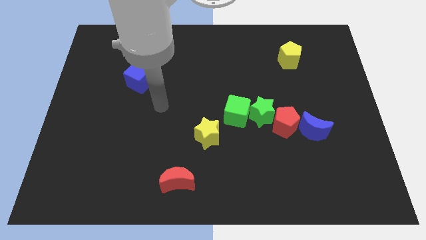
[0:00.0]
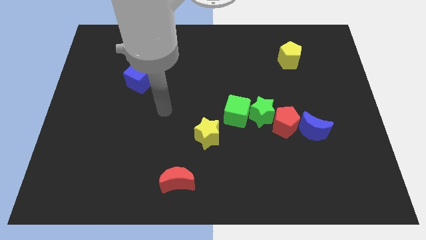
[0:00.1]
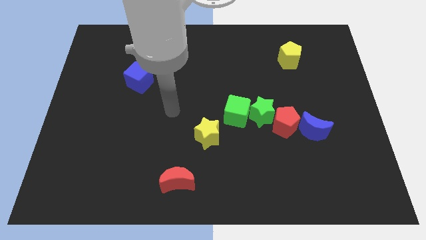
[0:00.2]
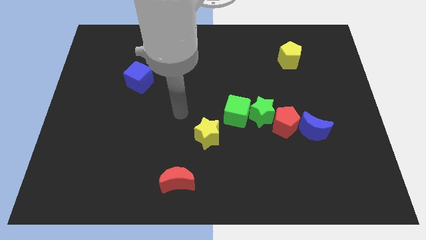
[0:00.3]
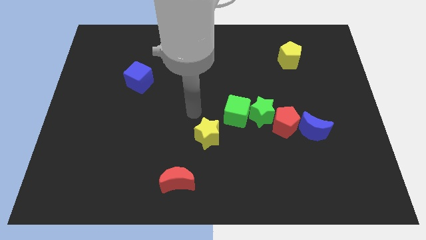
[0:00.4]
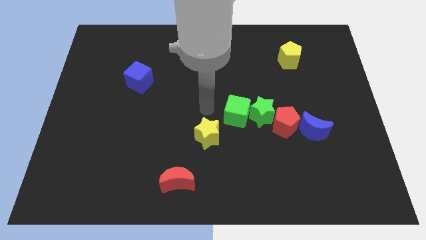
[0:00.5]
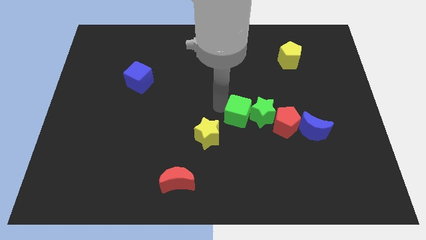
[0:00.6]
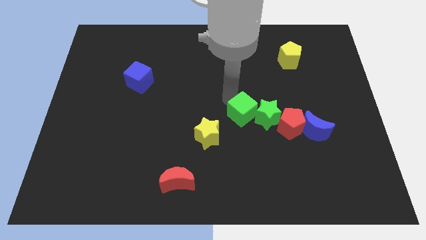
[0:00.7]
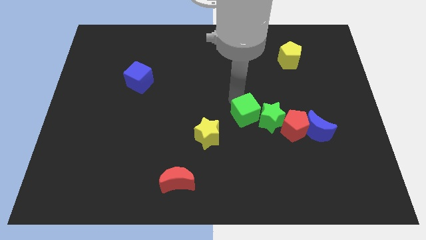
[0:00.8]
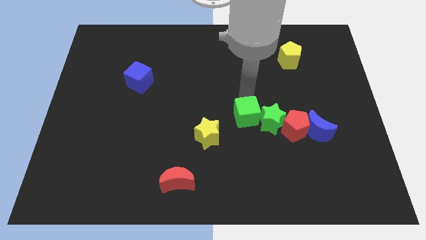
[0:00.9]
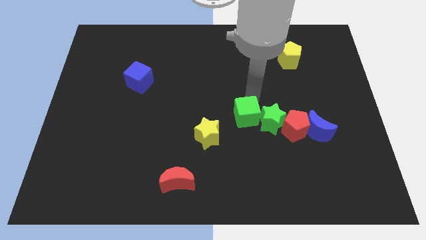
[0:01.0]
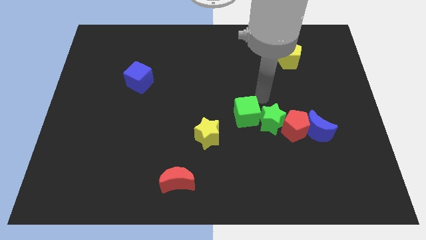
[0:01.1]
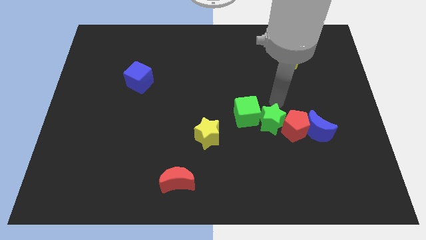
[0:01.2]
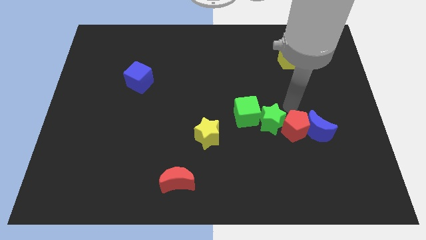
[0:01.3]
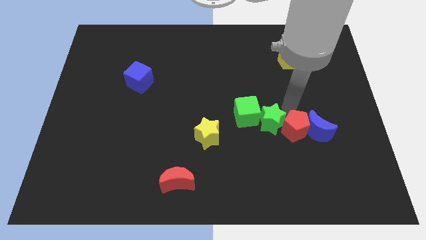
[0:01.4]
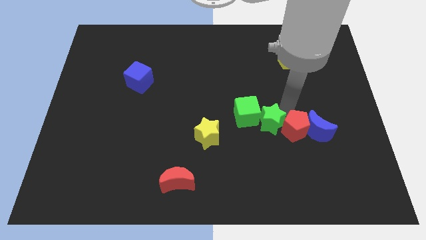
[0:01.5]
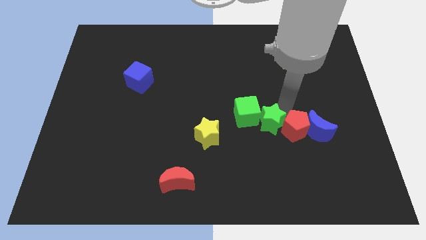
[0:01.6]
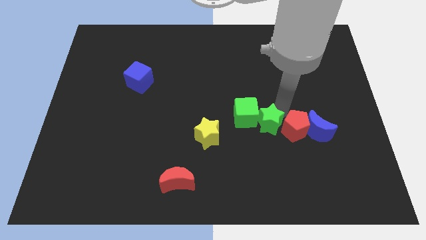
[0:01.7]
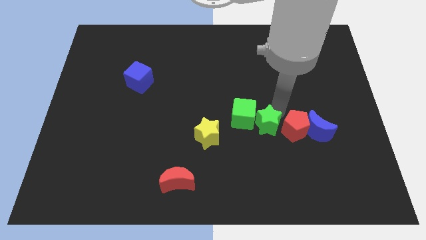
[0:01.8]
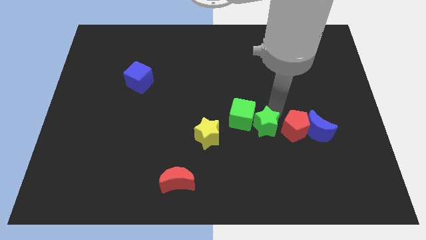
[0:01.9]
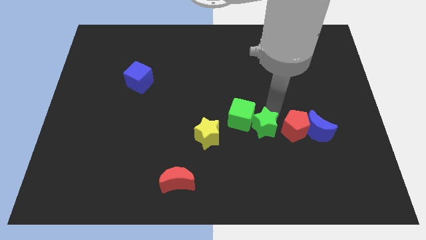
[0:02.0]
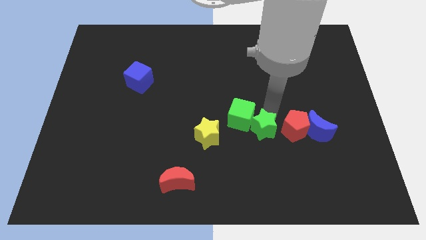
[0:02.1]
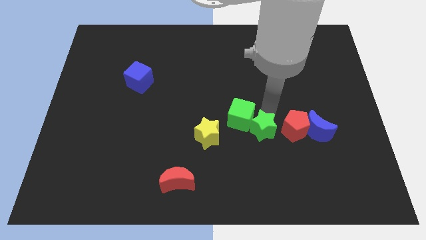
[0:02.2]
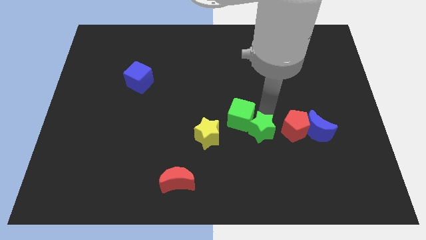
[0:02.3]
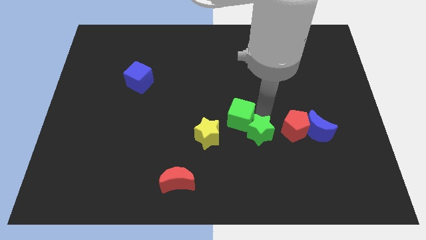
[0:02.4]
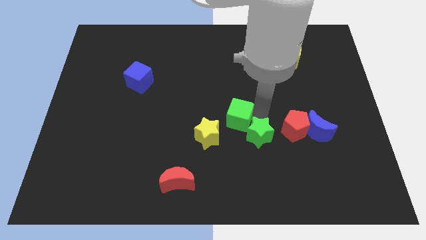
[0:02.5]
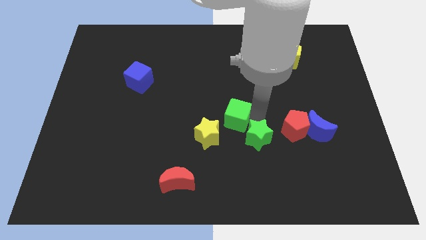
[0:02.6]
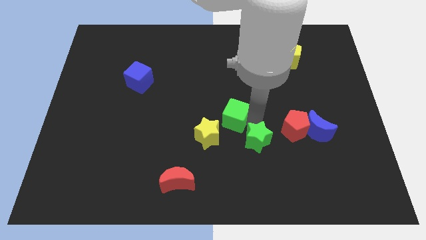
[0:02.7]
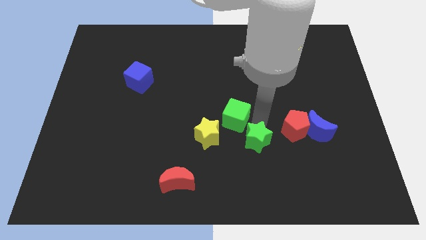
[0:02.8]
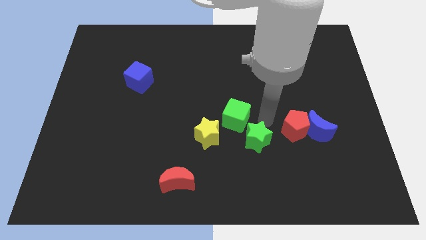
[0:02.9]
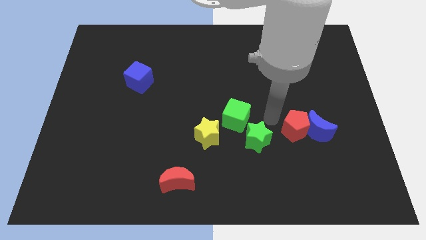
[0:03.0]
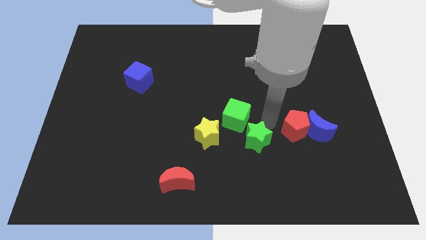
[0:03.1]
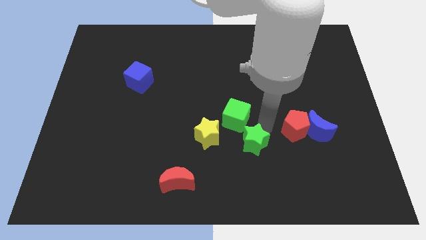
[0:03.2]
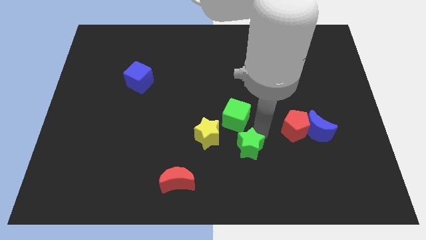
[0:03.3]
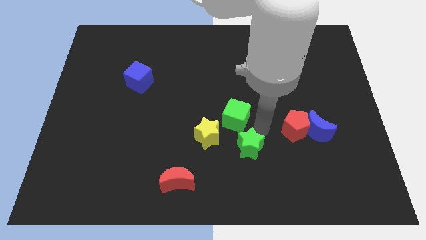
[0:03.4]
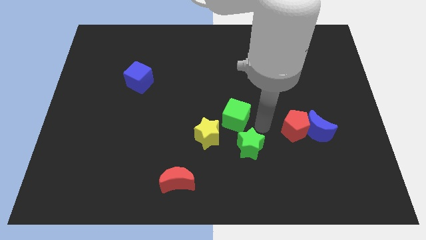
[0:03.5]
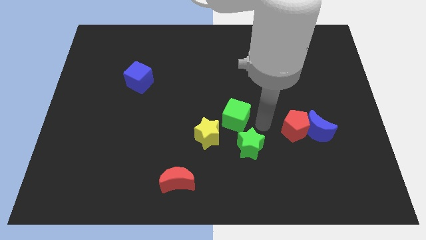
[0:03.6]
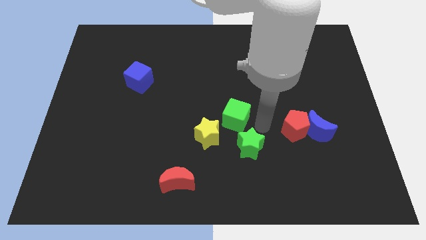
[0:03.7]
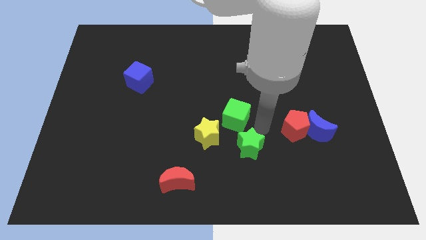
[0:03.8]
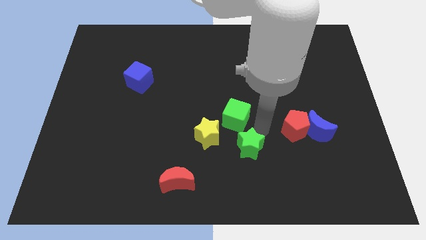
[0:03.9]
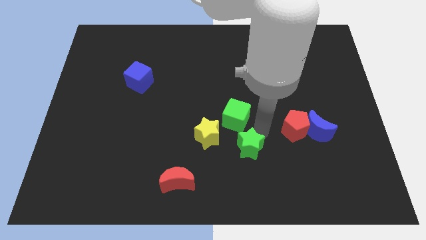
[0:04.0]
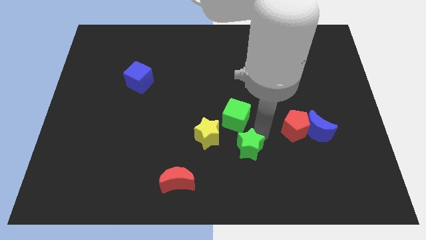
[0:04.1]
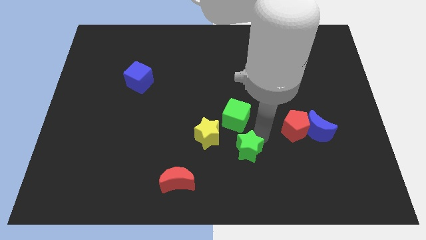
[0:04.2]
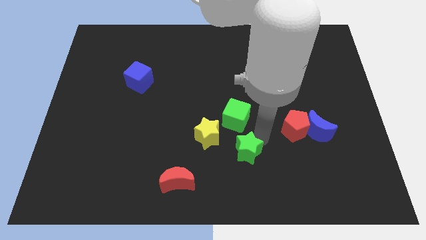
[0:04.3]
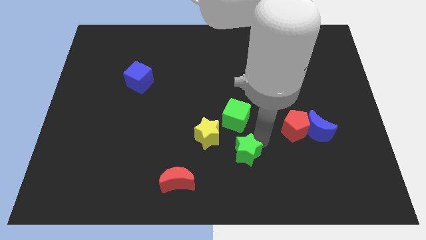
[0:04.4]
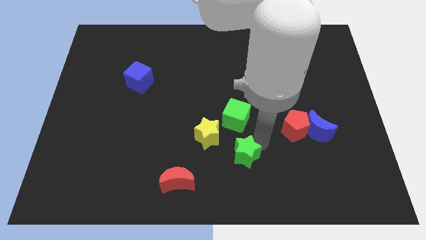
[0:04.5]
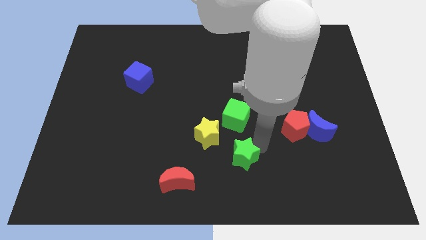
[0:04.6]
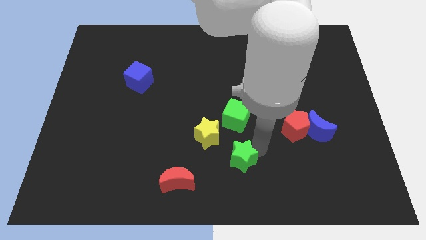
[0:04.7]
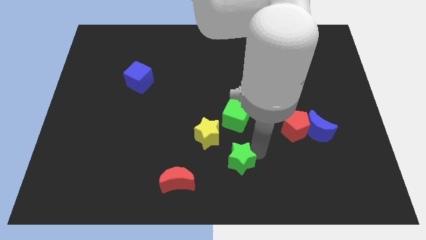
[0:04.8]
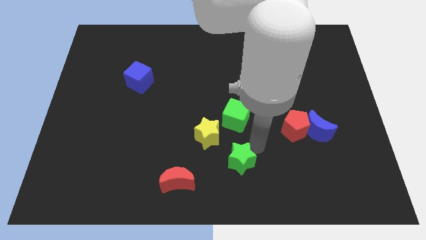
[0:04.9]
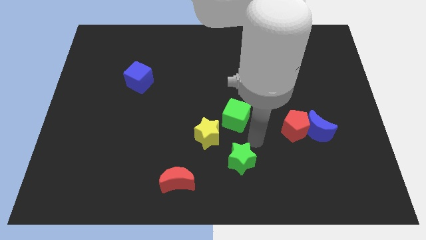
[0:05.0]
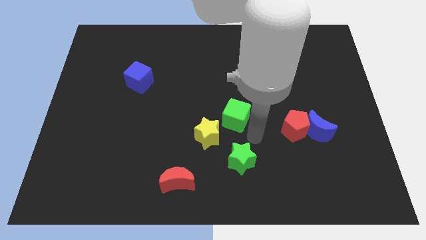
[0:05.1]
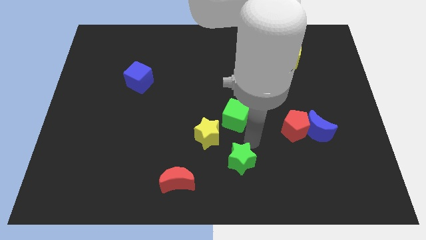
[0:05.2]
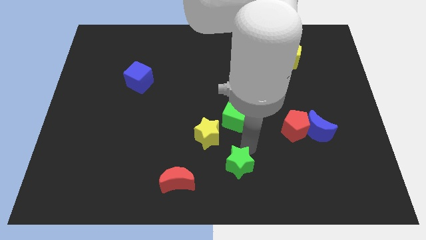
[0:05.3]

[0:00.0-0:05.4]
push the green star to the right side of the red moon

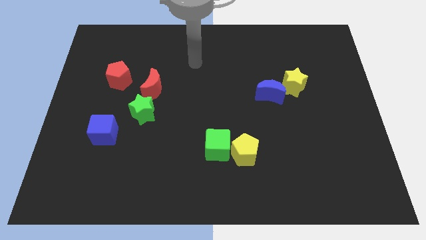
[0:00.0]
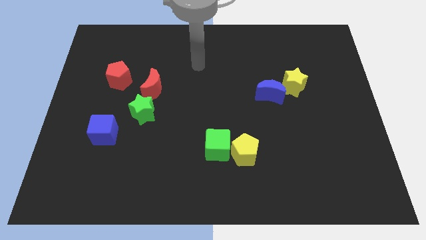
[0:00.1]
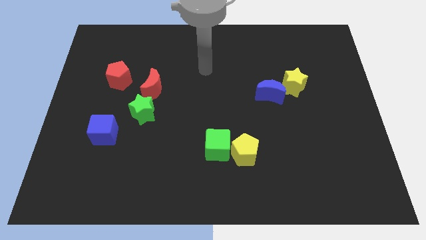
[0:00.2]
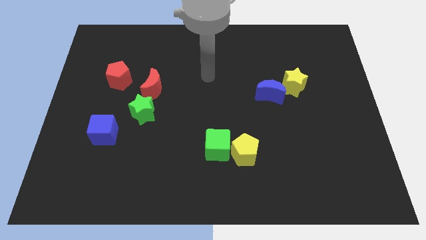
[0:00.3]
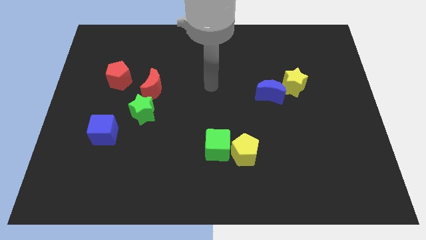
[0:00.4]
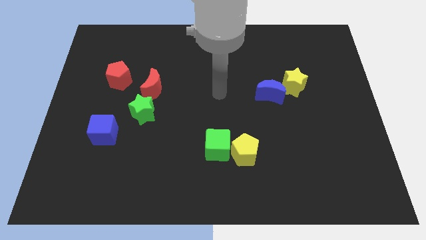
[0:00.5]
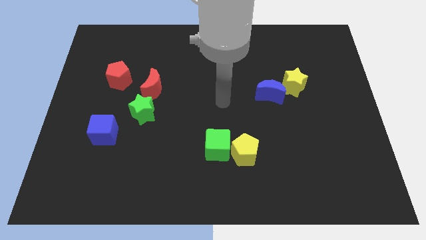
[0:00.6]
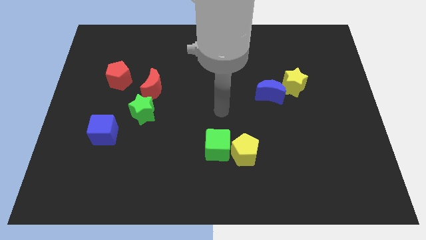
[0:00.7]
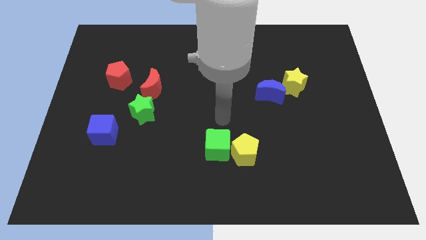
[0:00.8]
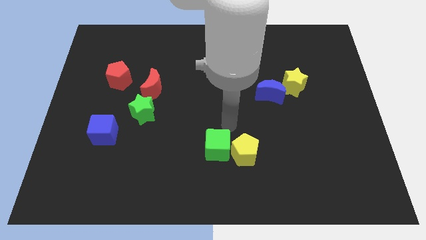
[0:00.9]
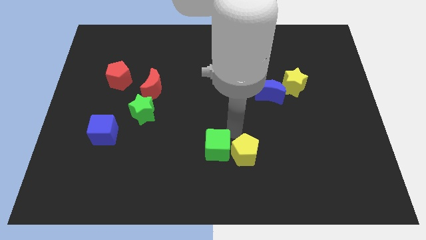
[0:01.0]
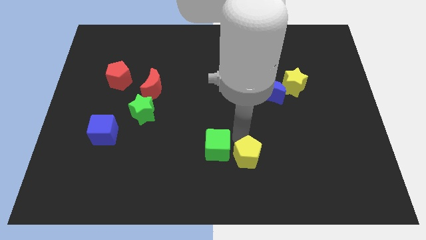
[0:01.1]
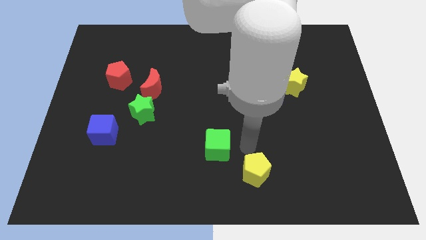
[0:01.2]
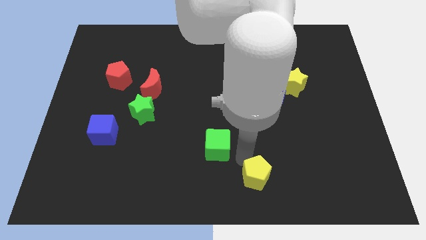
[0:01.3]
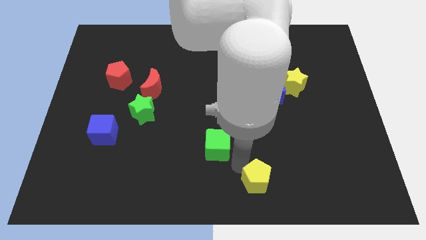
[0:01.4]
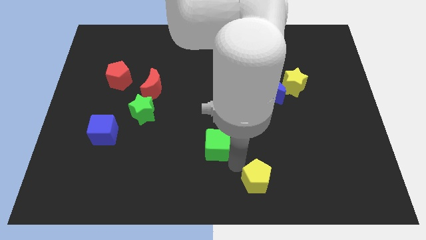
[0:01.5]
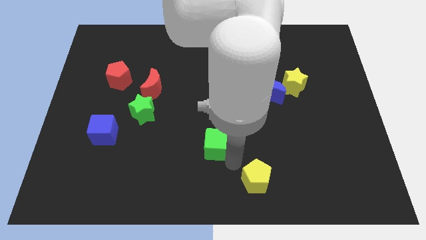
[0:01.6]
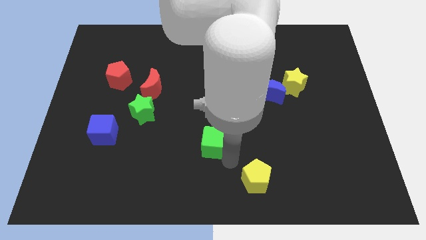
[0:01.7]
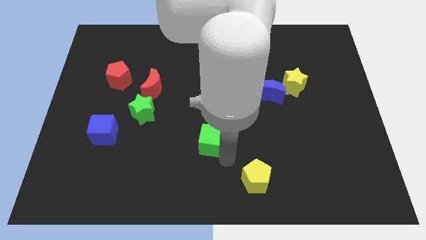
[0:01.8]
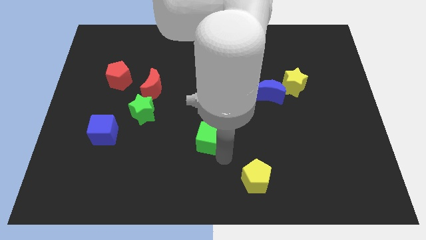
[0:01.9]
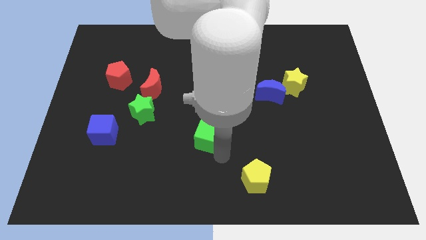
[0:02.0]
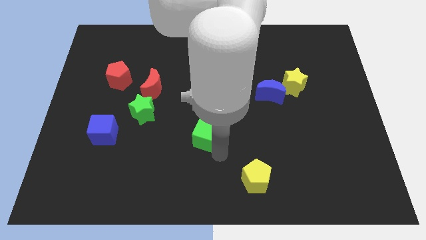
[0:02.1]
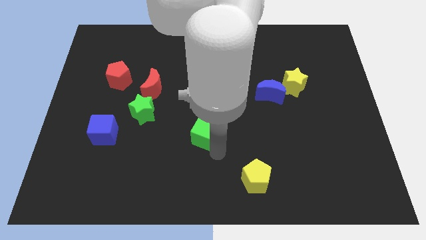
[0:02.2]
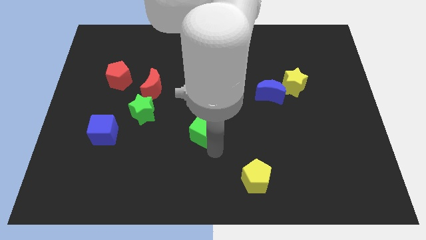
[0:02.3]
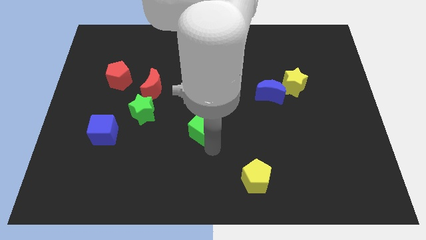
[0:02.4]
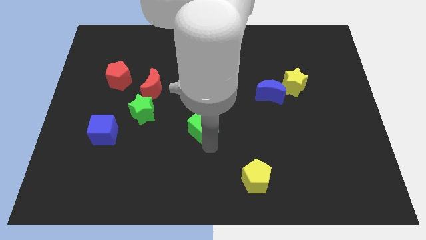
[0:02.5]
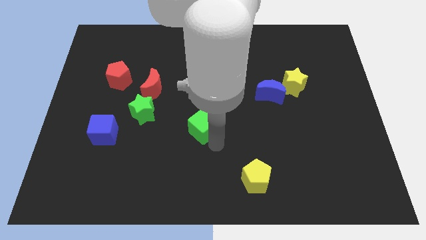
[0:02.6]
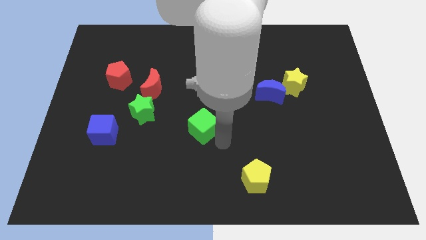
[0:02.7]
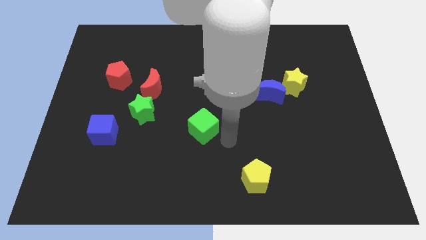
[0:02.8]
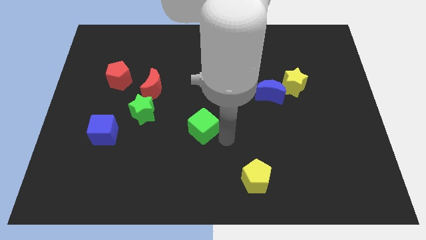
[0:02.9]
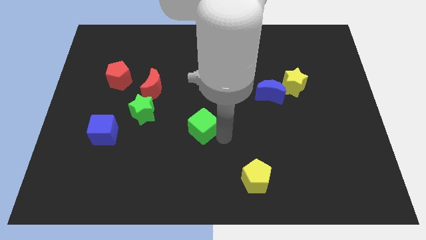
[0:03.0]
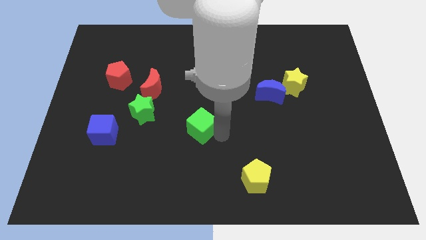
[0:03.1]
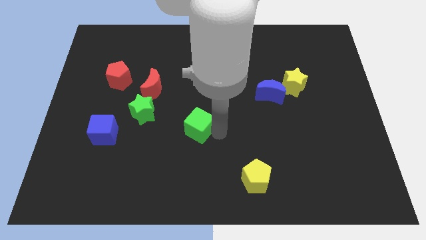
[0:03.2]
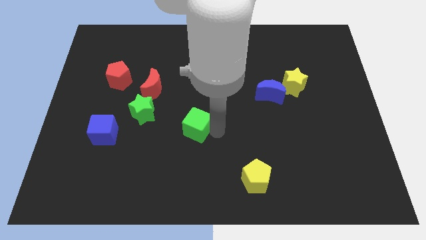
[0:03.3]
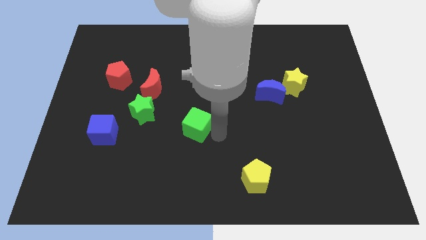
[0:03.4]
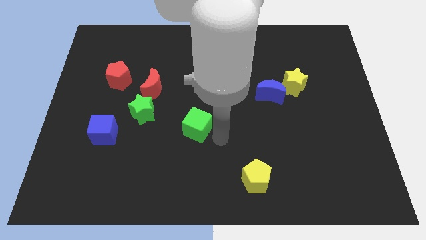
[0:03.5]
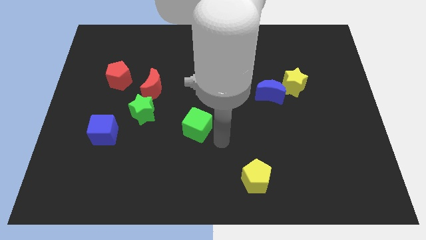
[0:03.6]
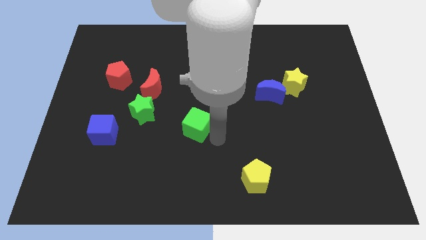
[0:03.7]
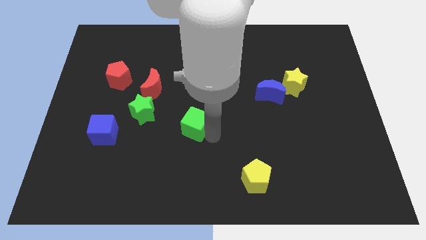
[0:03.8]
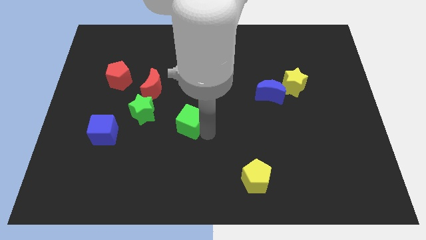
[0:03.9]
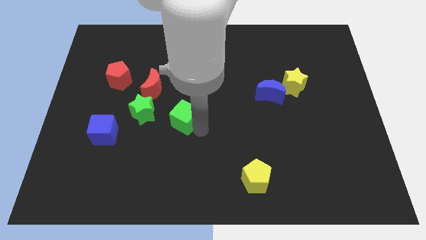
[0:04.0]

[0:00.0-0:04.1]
slide the green cube to the bottom right of the red moon
